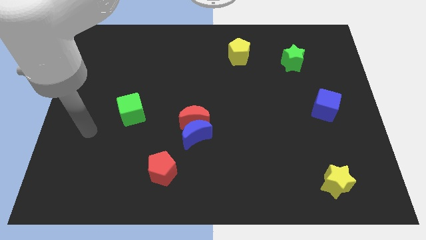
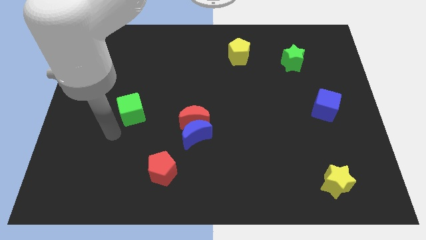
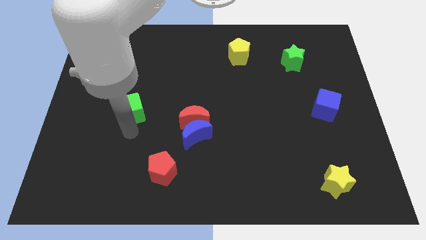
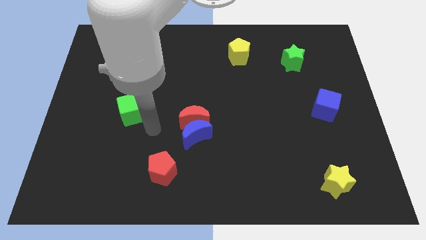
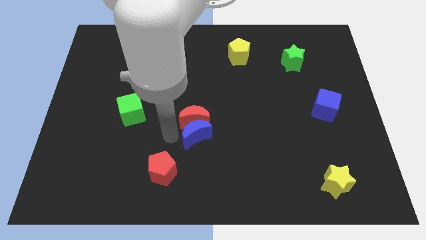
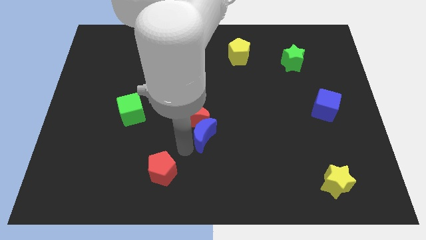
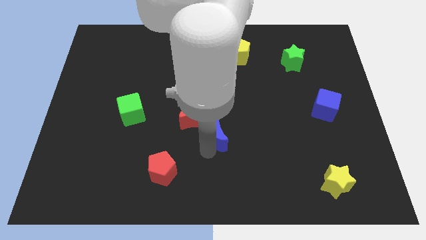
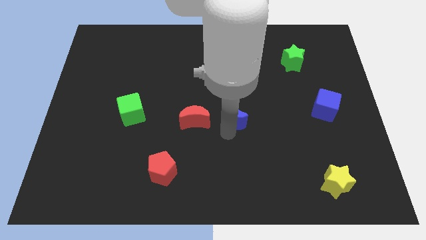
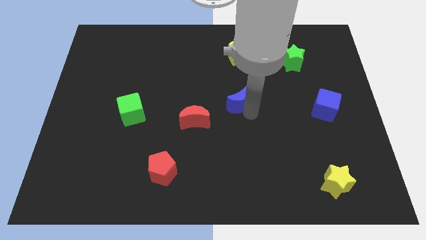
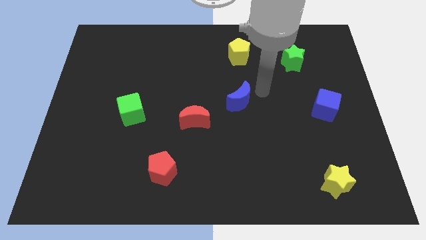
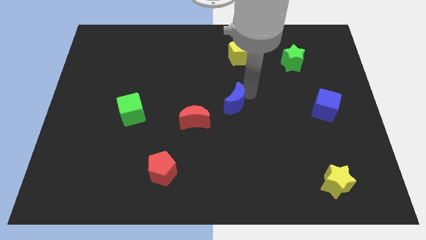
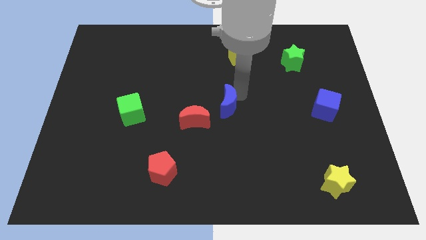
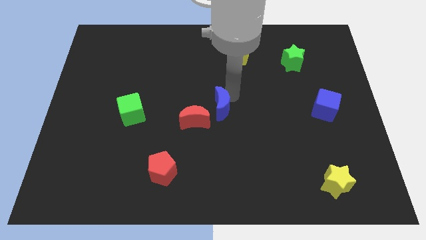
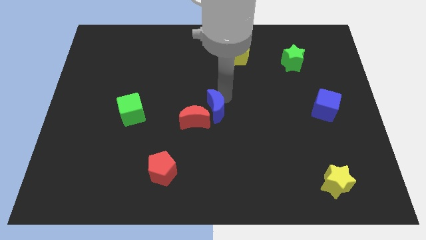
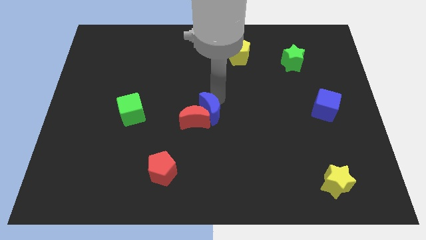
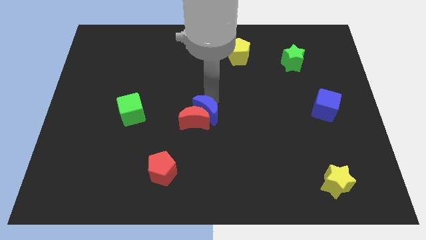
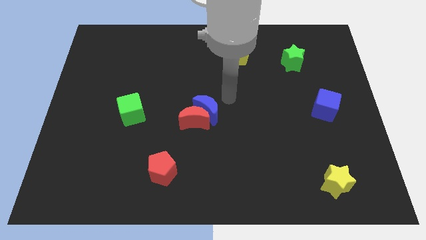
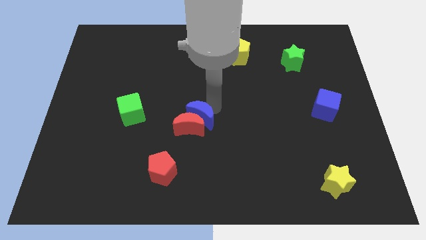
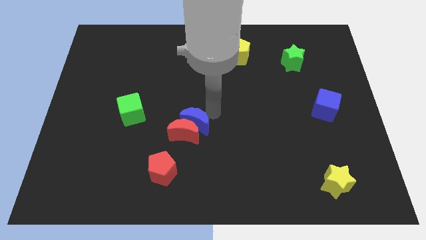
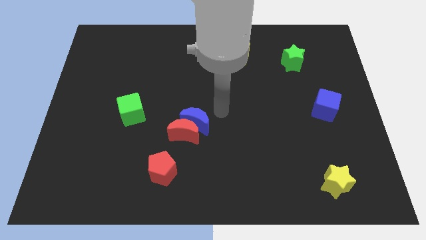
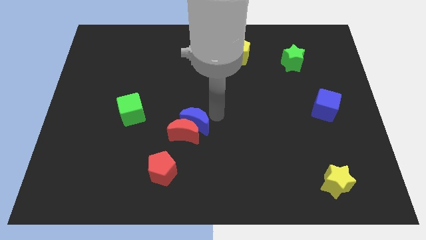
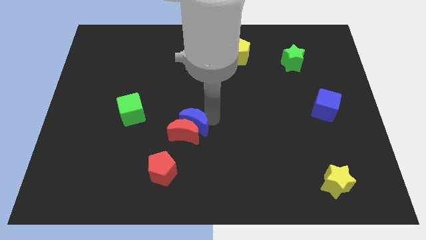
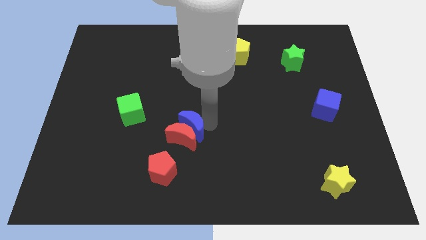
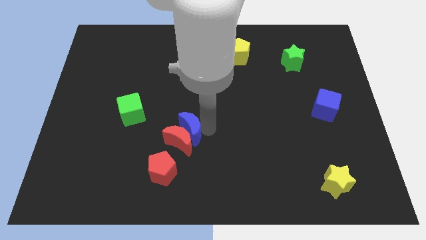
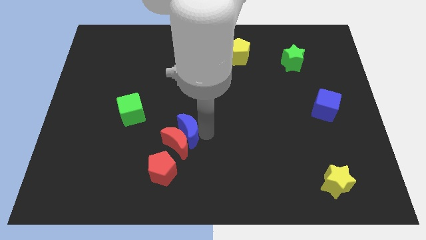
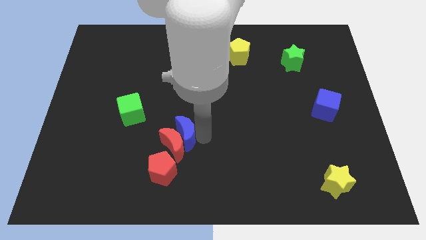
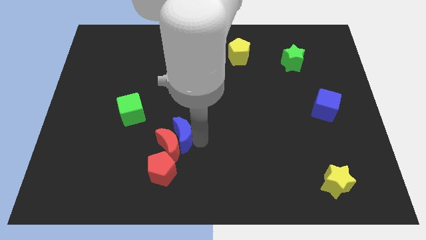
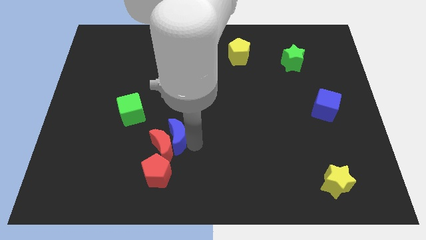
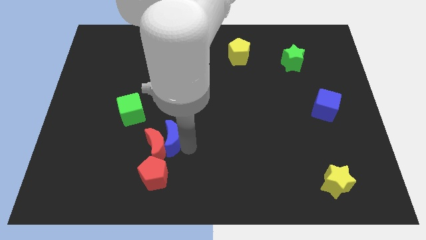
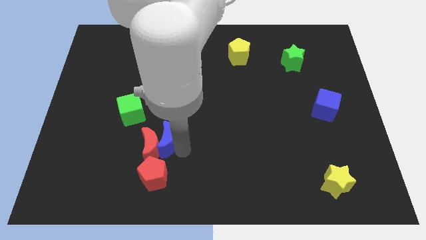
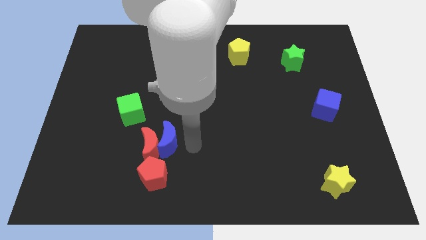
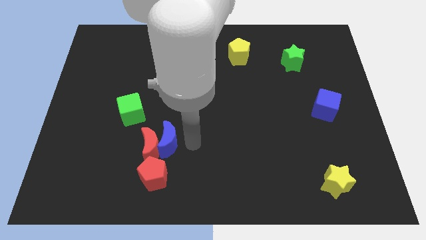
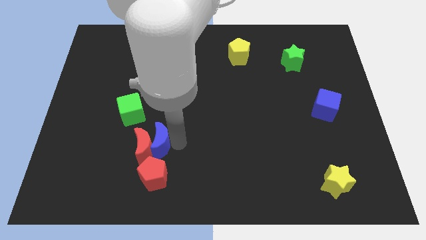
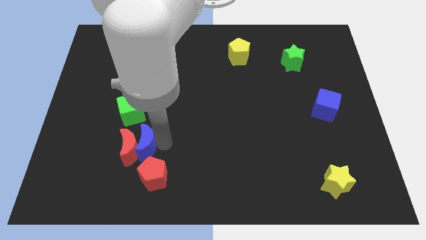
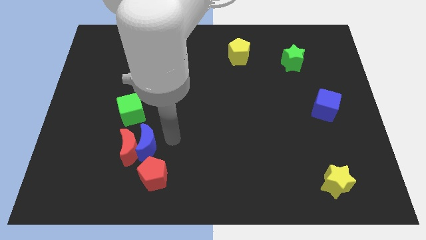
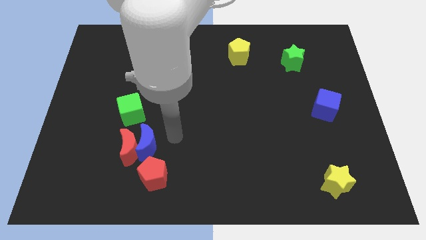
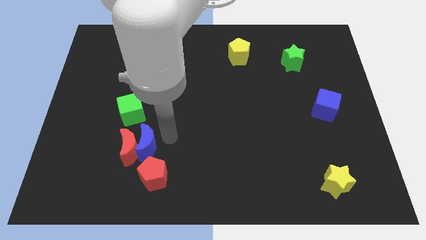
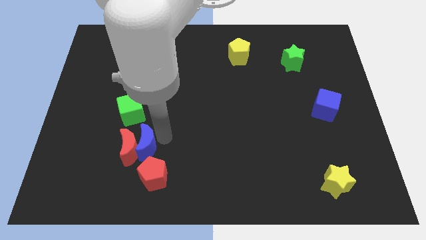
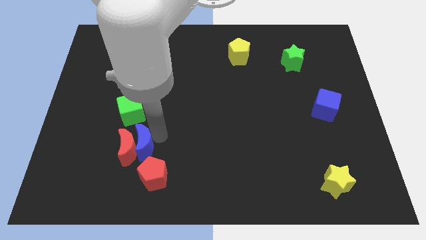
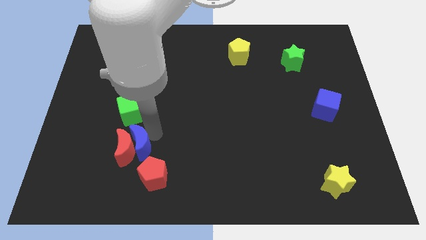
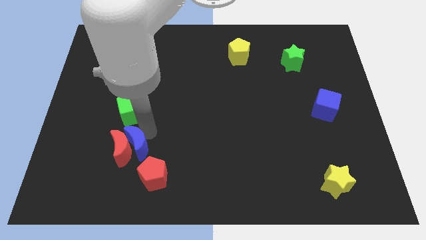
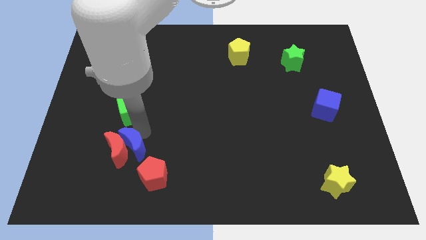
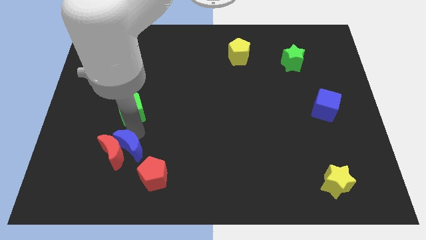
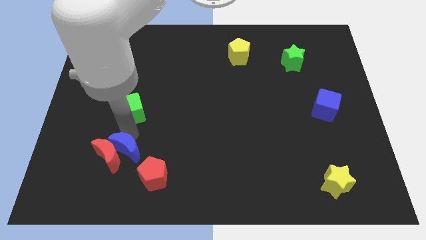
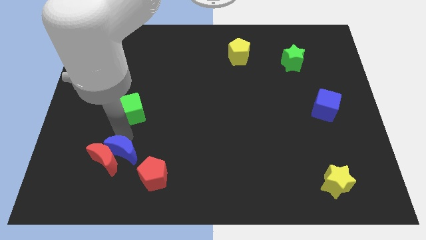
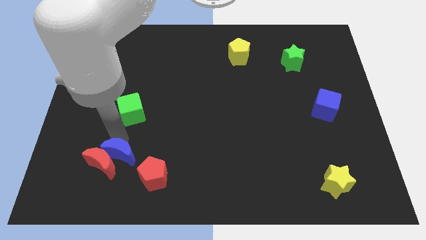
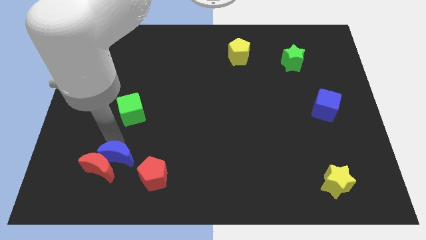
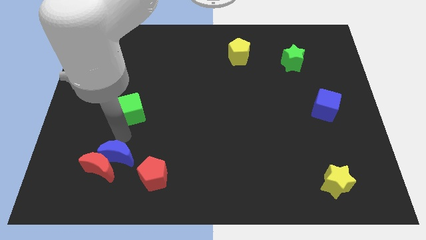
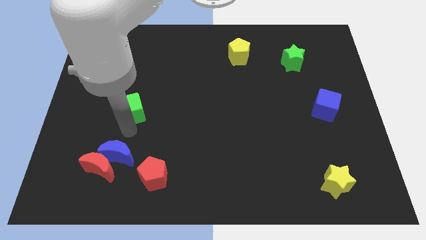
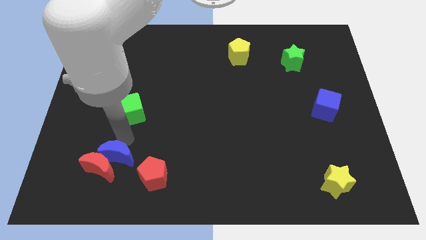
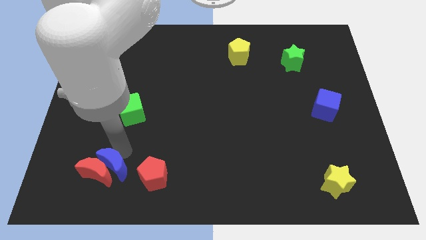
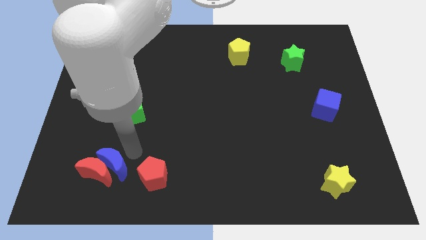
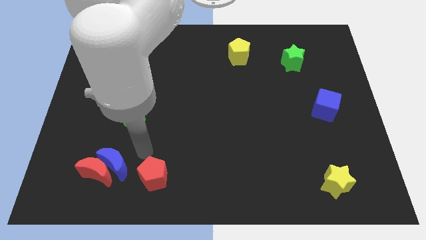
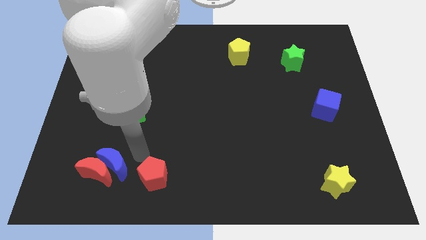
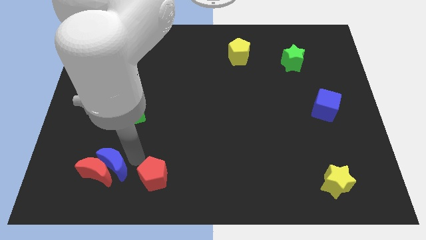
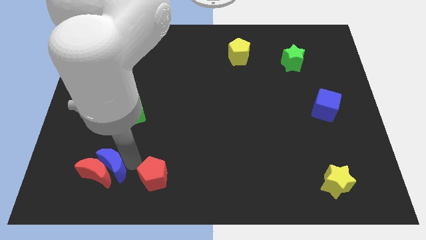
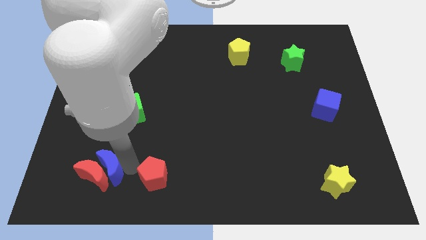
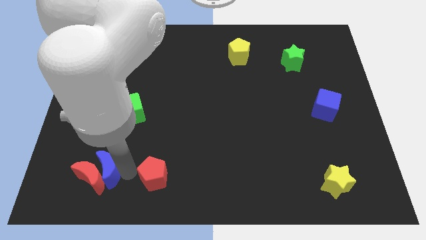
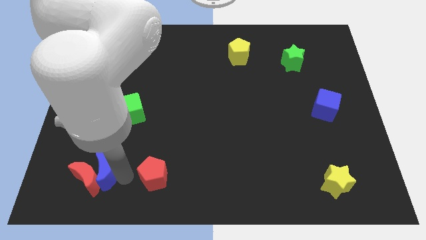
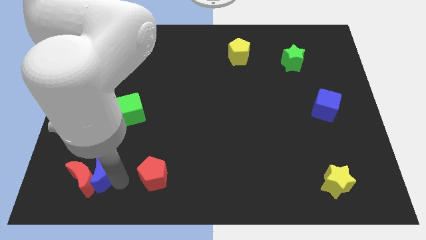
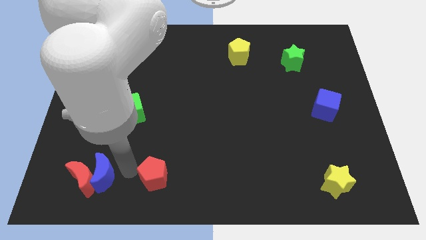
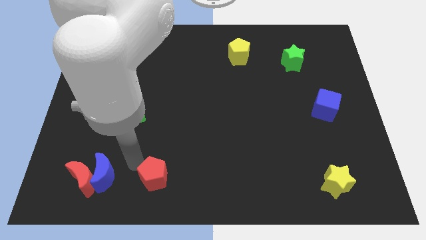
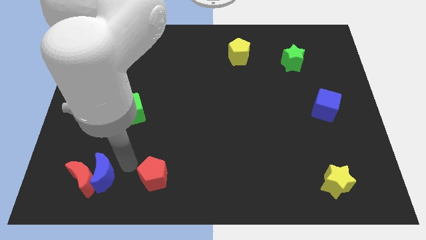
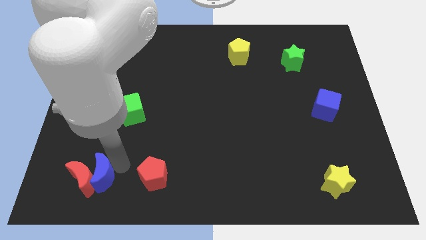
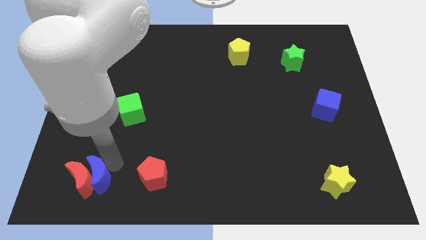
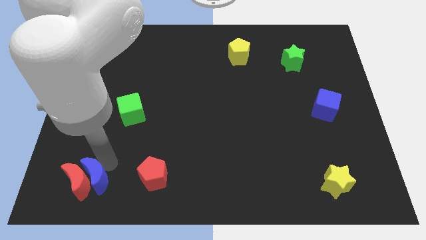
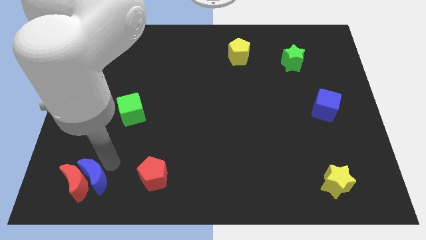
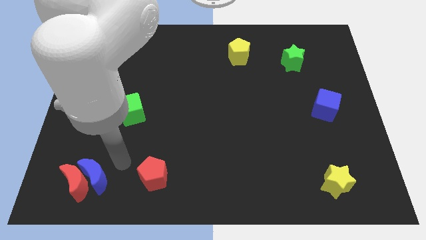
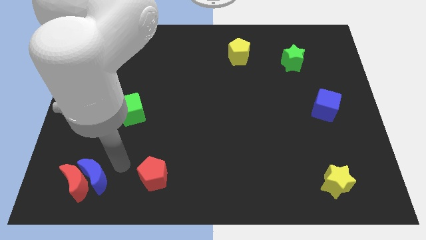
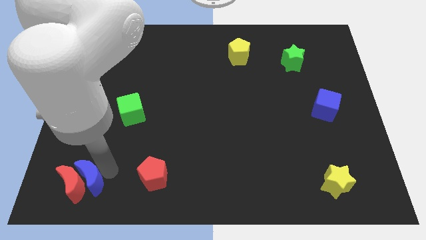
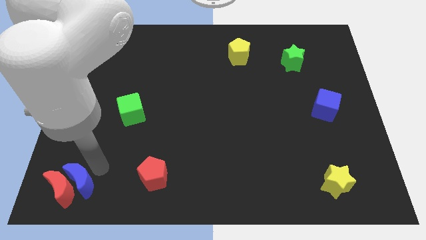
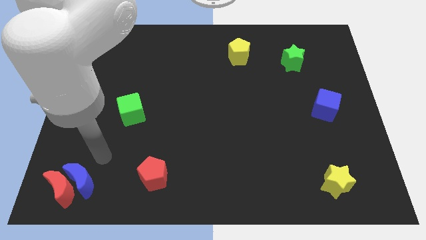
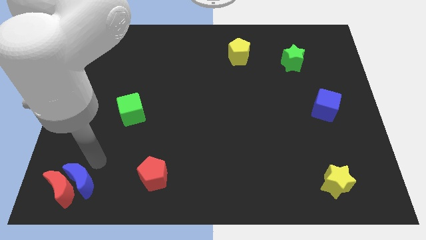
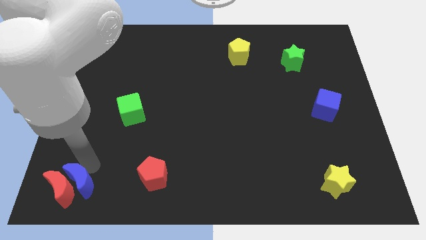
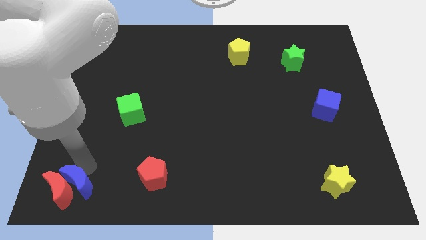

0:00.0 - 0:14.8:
move the blue moon to the bottom left
